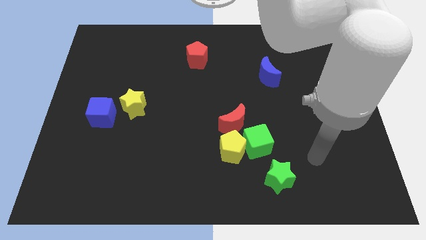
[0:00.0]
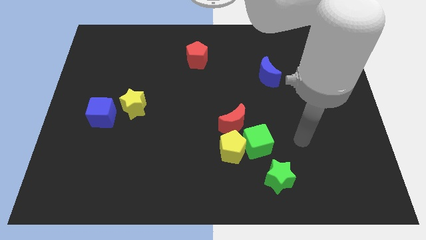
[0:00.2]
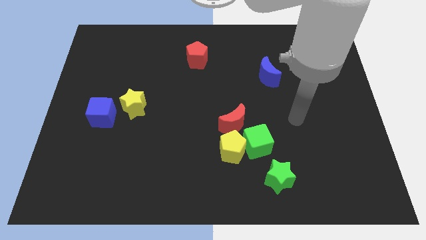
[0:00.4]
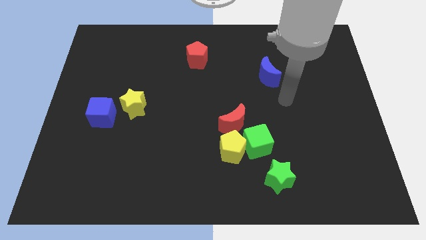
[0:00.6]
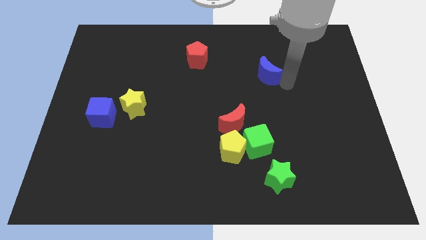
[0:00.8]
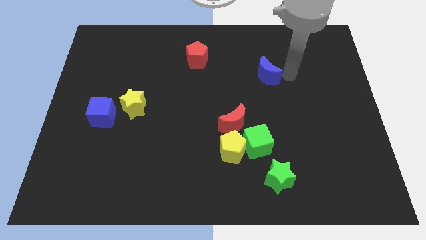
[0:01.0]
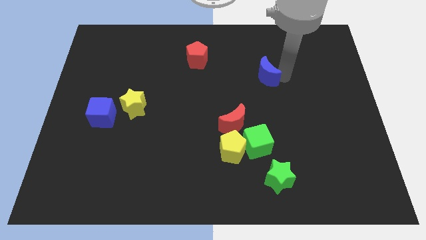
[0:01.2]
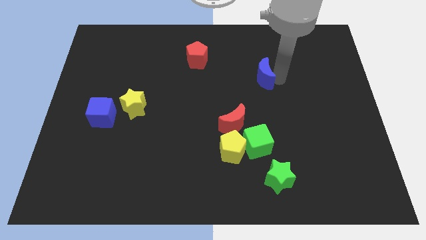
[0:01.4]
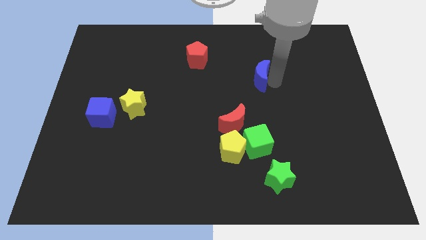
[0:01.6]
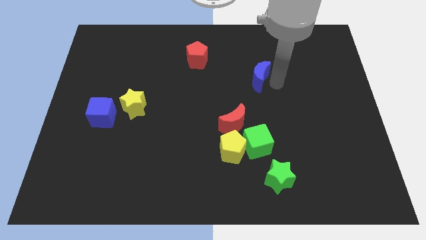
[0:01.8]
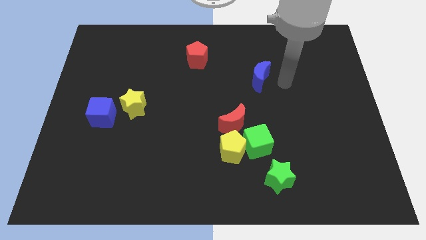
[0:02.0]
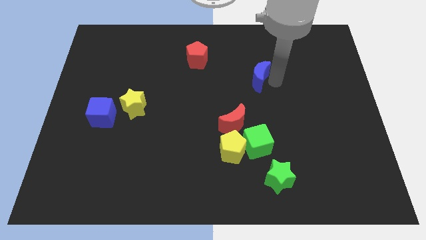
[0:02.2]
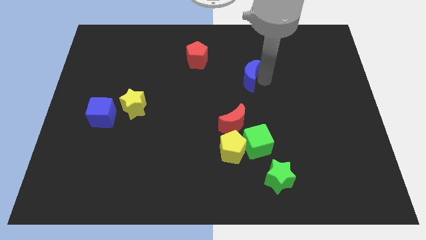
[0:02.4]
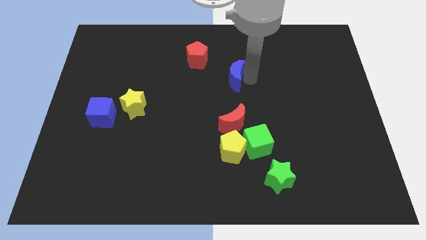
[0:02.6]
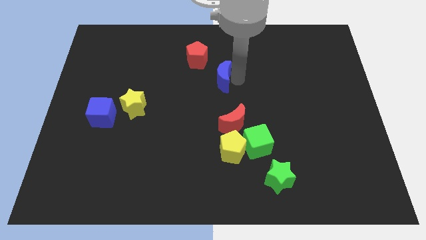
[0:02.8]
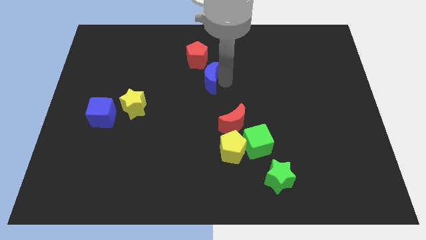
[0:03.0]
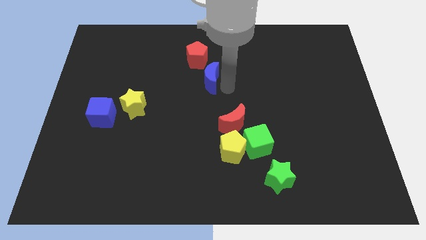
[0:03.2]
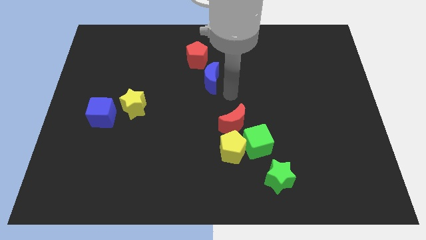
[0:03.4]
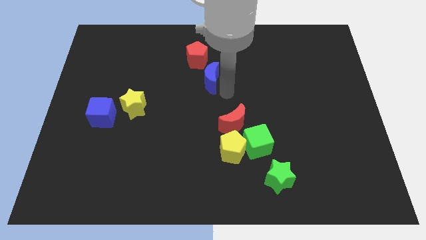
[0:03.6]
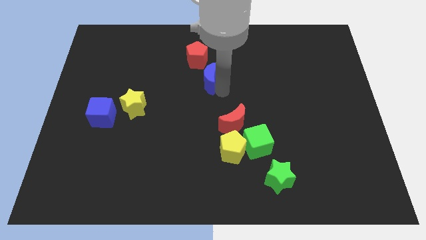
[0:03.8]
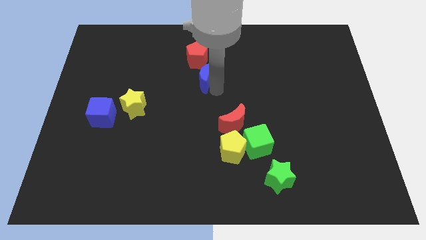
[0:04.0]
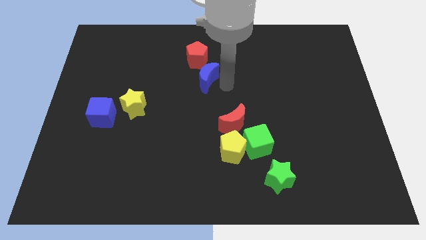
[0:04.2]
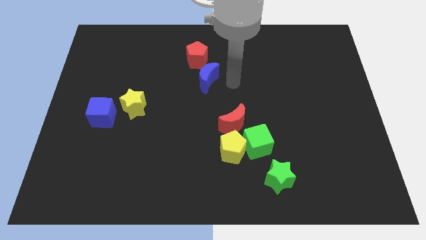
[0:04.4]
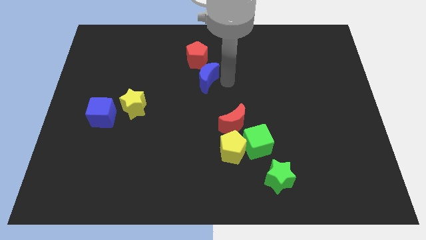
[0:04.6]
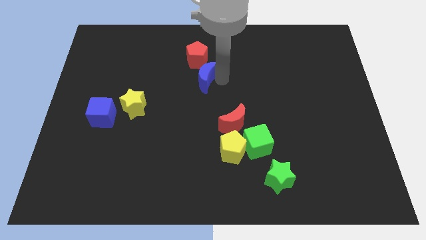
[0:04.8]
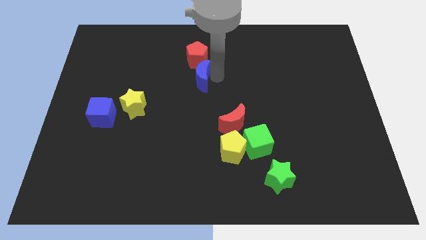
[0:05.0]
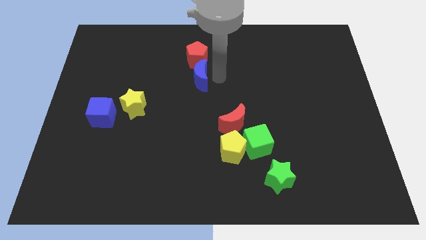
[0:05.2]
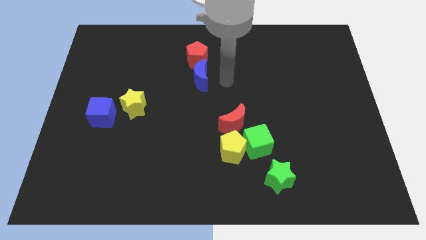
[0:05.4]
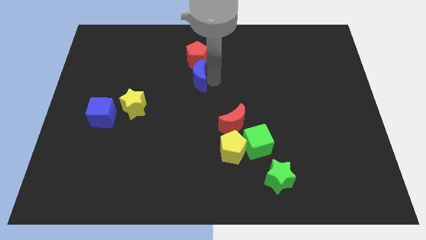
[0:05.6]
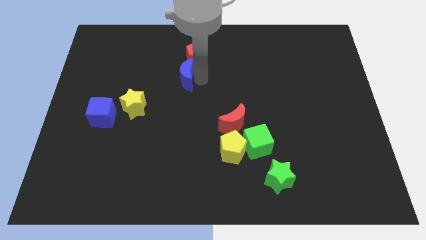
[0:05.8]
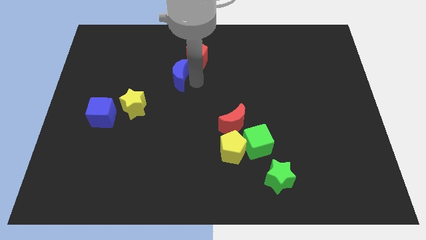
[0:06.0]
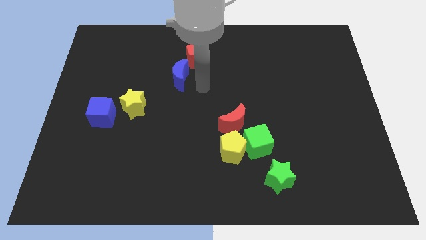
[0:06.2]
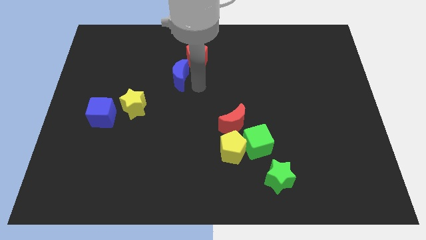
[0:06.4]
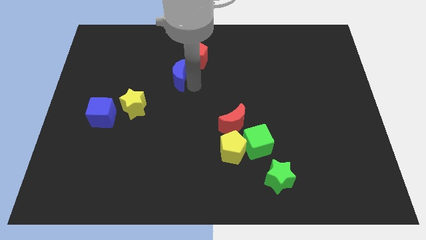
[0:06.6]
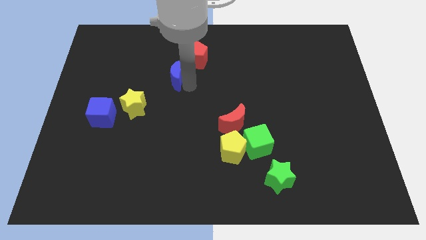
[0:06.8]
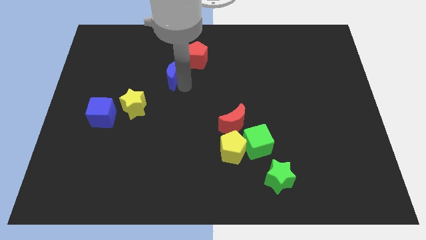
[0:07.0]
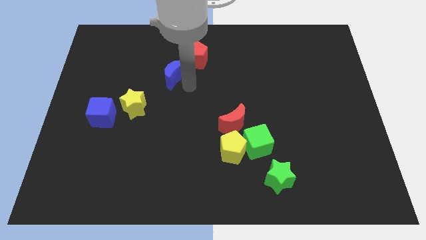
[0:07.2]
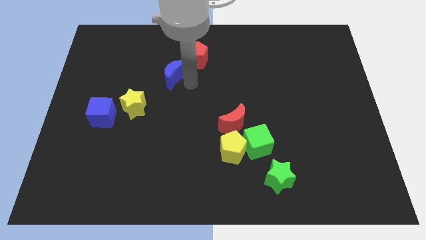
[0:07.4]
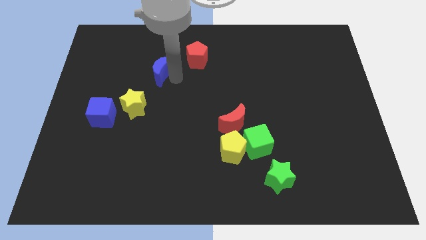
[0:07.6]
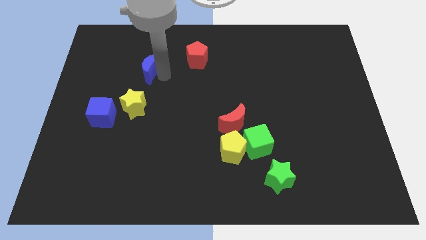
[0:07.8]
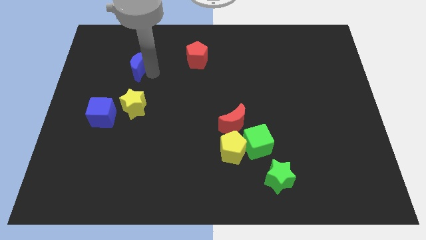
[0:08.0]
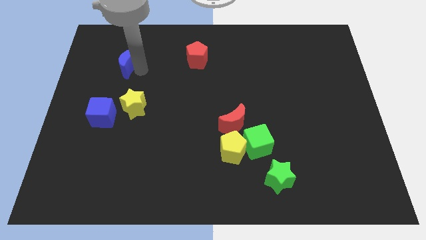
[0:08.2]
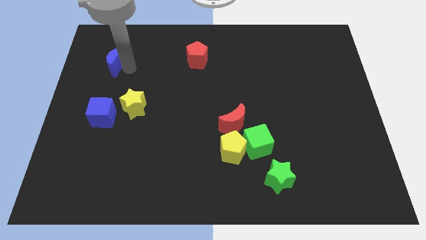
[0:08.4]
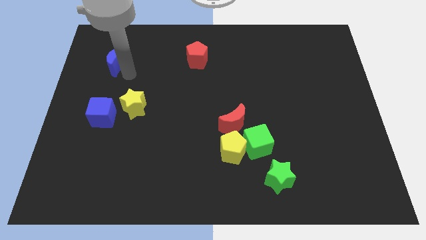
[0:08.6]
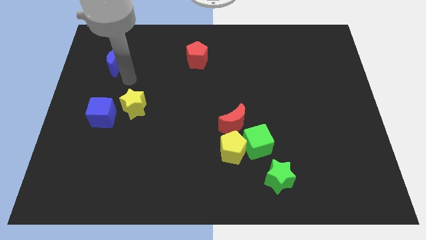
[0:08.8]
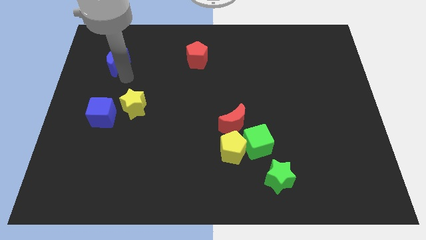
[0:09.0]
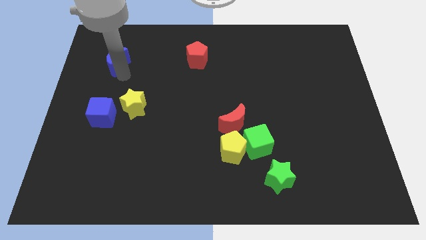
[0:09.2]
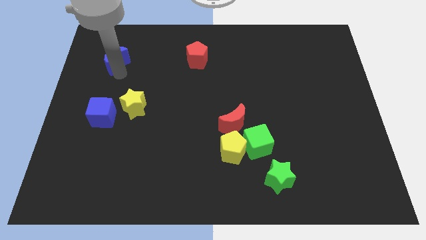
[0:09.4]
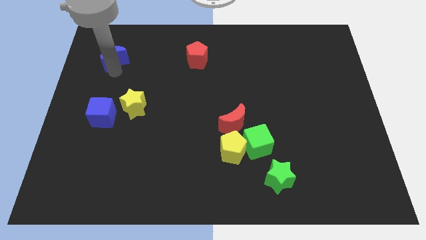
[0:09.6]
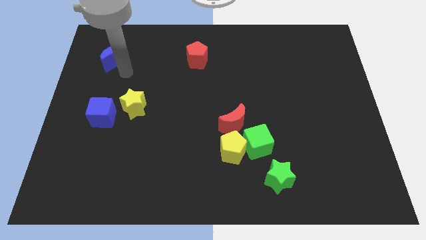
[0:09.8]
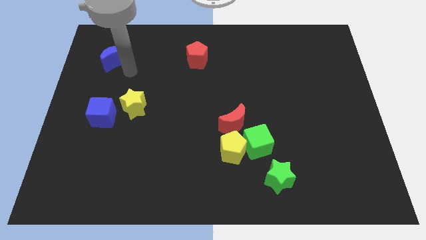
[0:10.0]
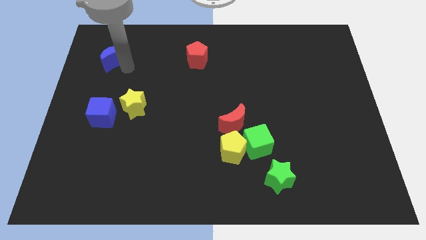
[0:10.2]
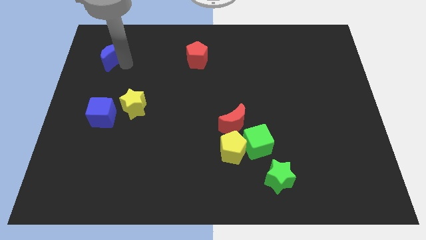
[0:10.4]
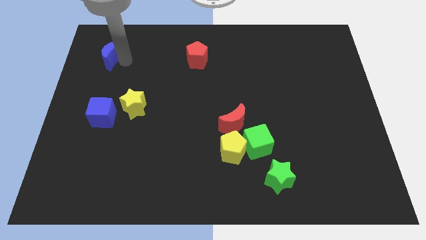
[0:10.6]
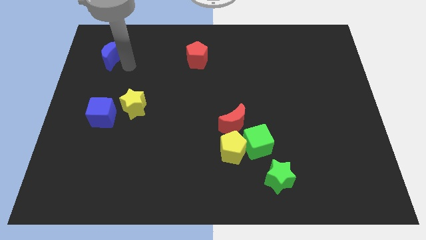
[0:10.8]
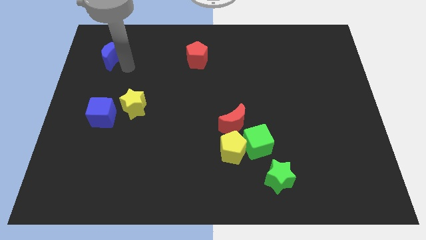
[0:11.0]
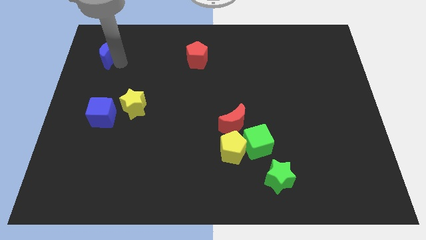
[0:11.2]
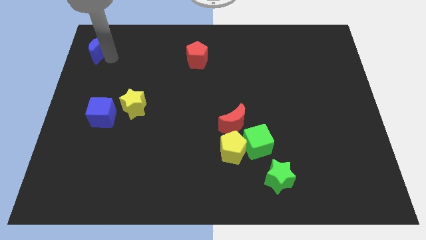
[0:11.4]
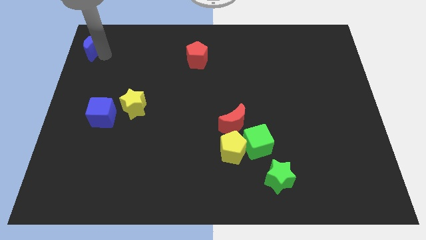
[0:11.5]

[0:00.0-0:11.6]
move the blue moon to the top left of the board
